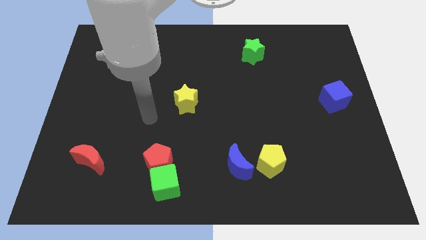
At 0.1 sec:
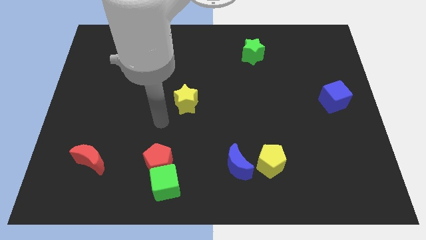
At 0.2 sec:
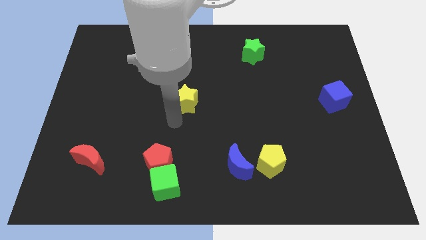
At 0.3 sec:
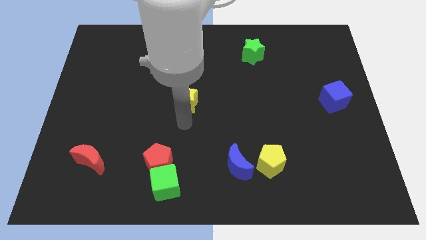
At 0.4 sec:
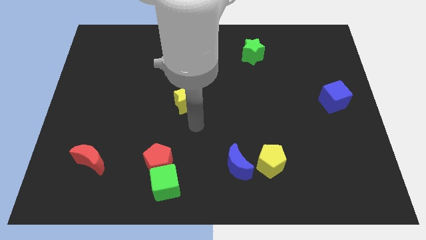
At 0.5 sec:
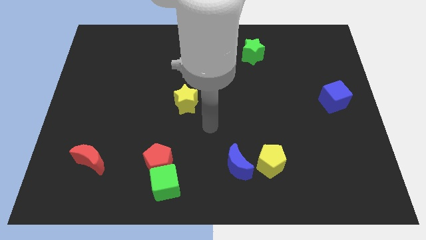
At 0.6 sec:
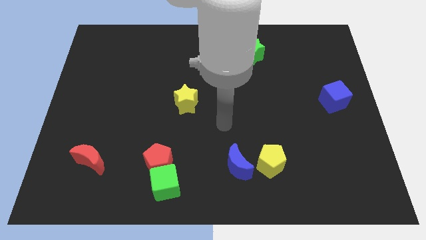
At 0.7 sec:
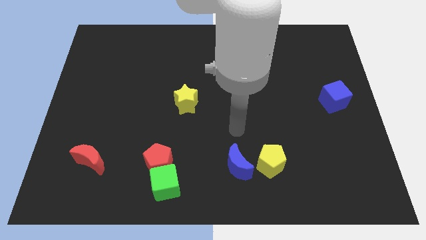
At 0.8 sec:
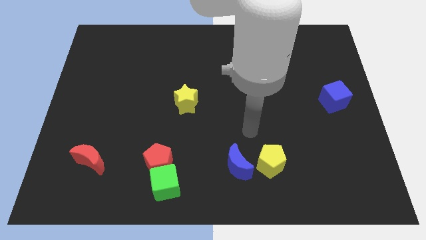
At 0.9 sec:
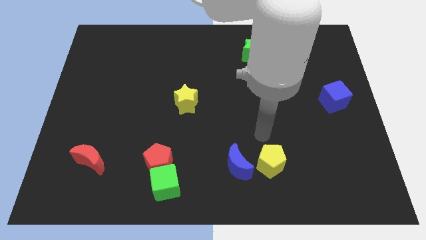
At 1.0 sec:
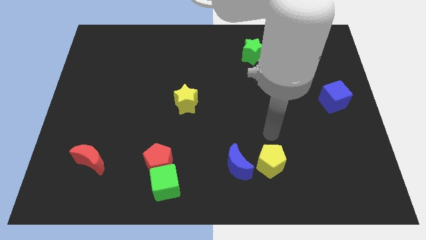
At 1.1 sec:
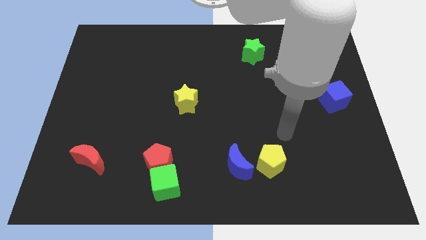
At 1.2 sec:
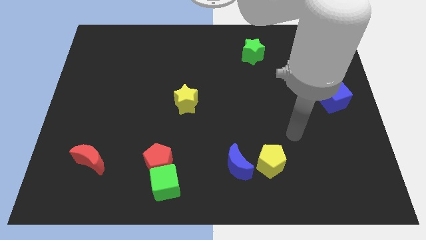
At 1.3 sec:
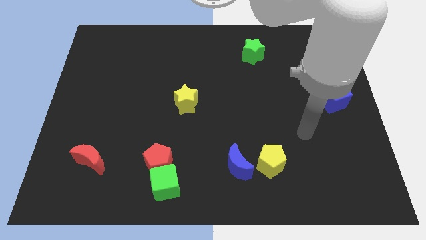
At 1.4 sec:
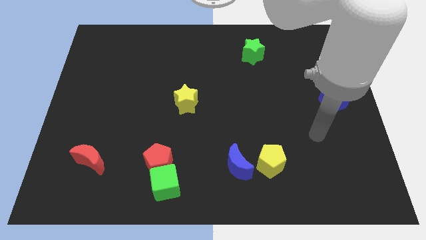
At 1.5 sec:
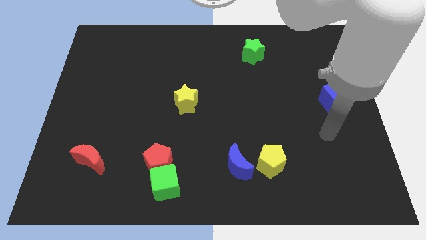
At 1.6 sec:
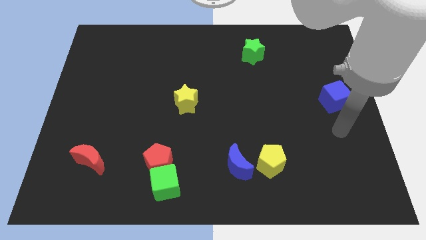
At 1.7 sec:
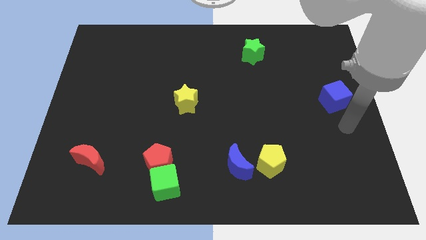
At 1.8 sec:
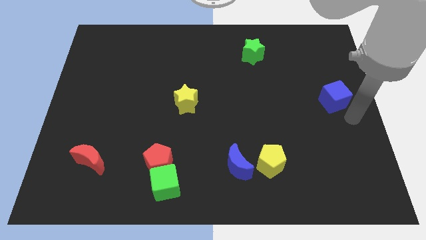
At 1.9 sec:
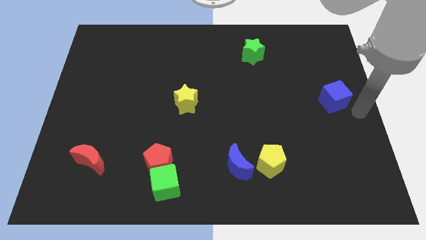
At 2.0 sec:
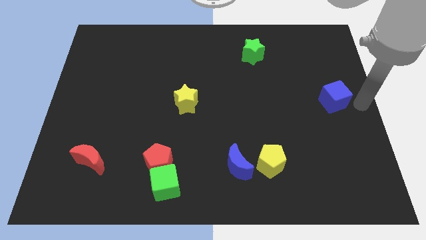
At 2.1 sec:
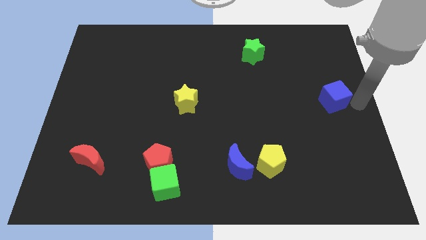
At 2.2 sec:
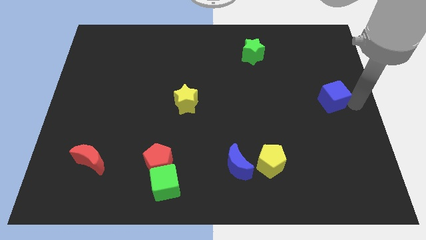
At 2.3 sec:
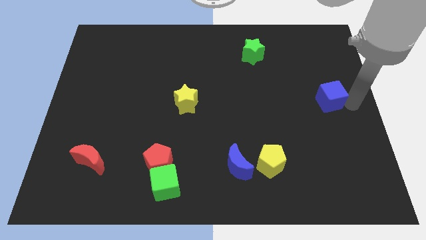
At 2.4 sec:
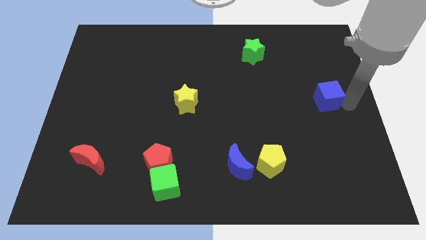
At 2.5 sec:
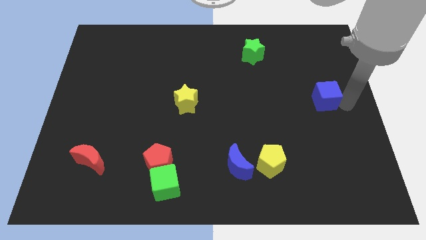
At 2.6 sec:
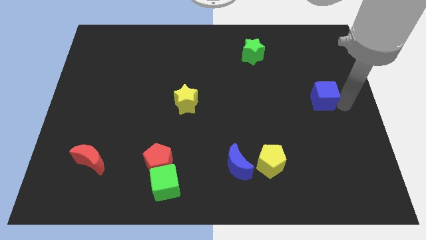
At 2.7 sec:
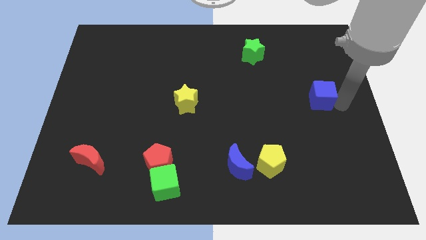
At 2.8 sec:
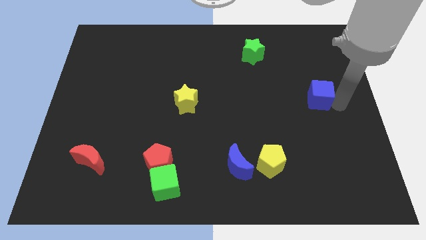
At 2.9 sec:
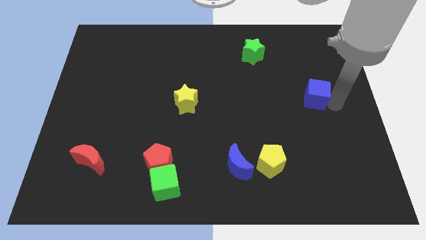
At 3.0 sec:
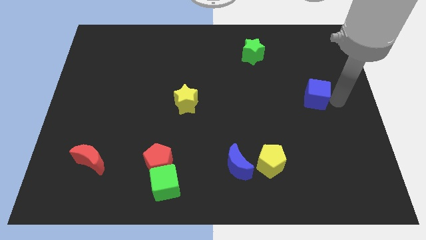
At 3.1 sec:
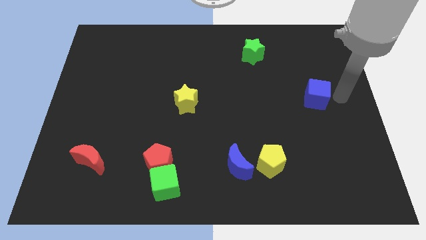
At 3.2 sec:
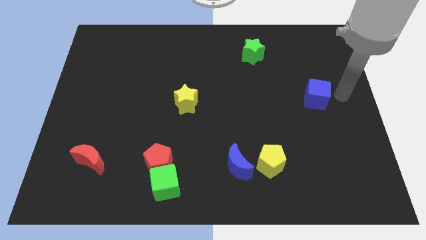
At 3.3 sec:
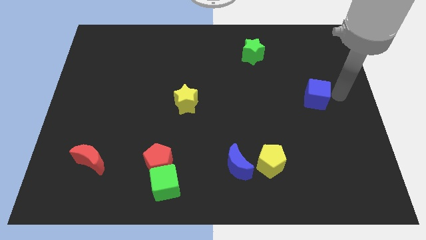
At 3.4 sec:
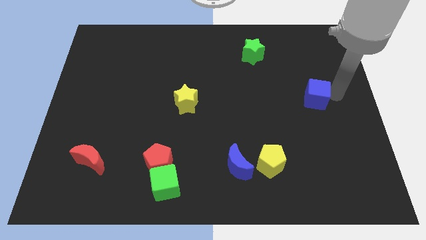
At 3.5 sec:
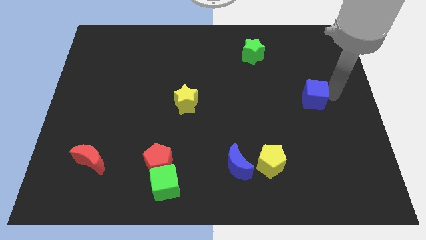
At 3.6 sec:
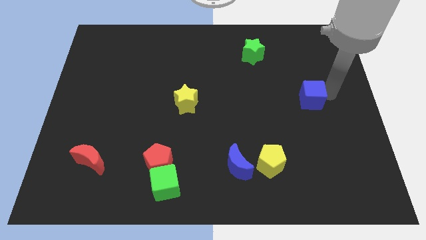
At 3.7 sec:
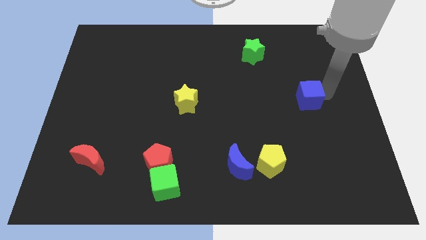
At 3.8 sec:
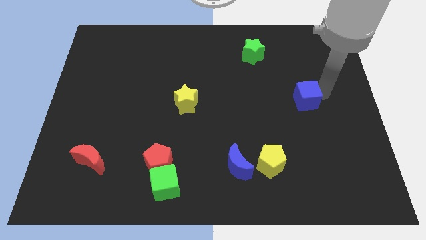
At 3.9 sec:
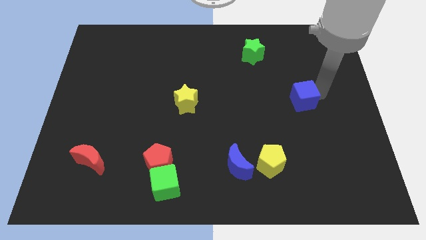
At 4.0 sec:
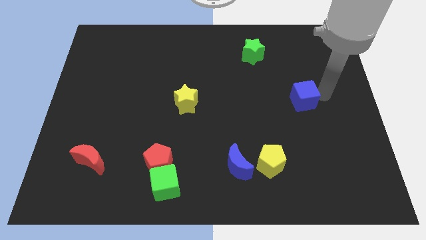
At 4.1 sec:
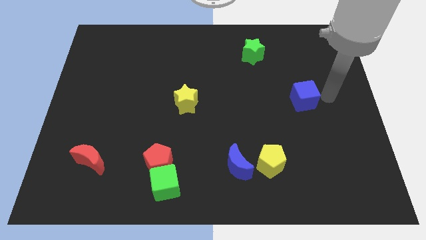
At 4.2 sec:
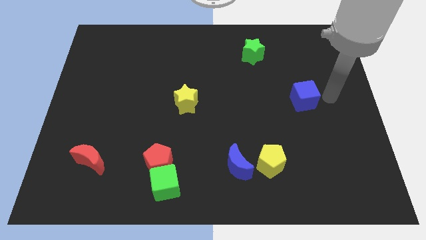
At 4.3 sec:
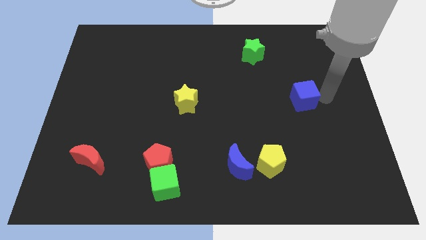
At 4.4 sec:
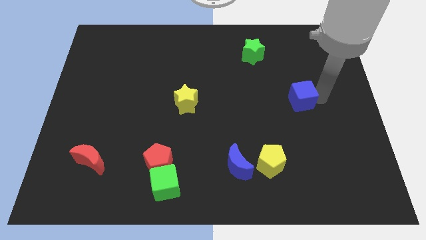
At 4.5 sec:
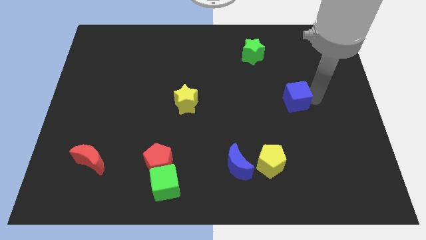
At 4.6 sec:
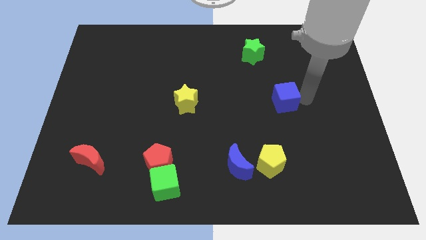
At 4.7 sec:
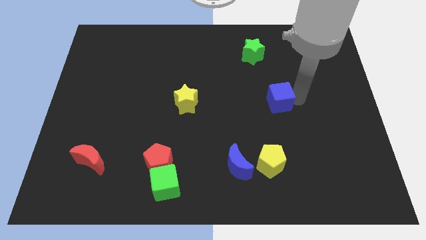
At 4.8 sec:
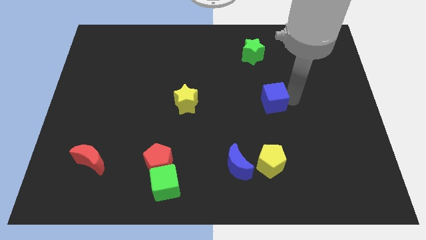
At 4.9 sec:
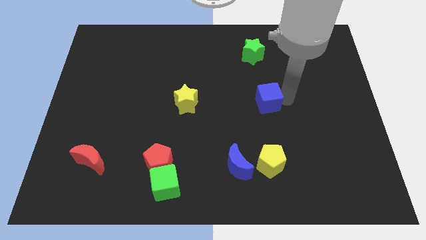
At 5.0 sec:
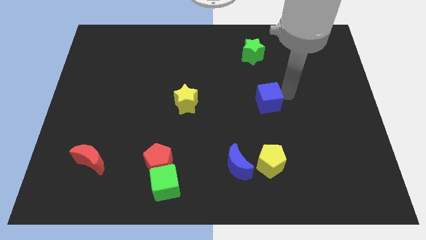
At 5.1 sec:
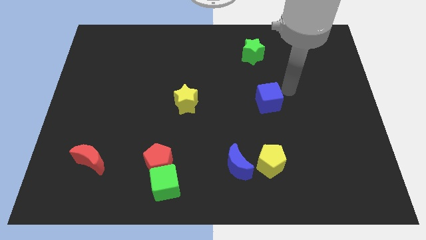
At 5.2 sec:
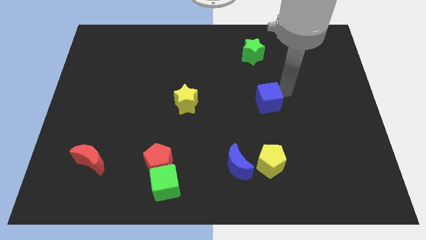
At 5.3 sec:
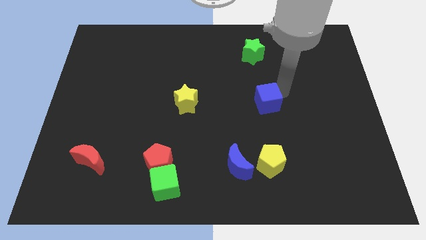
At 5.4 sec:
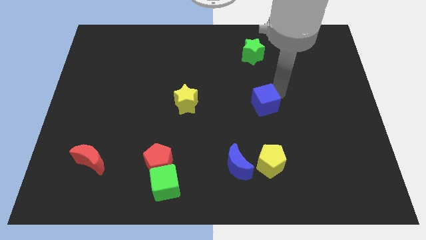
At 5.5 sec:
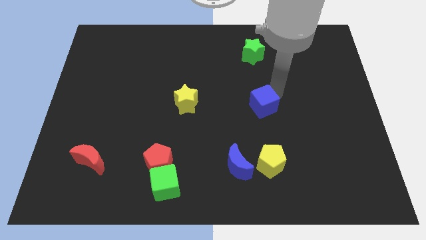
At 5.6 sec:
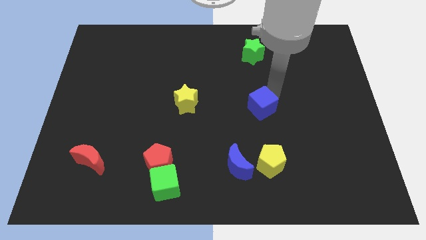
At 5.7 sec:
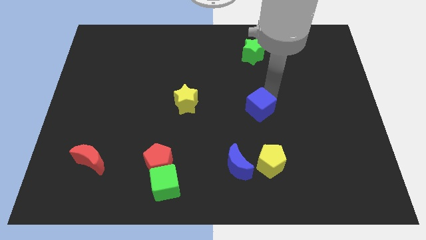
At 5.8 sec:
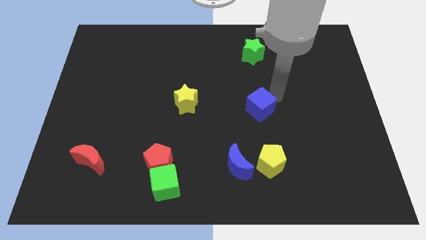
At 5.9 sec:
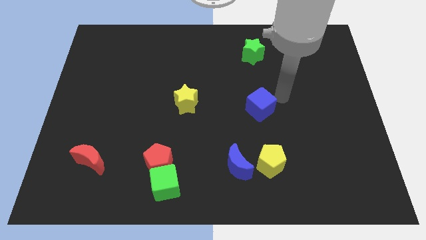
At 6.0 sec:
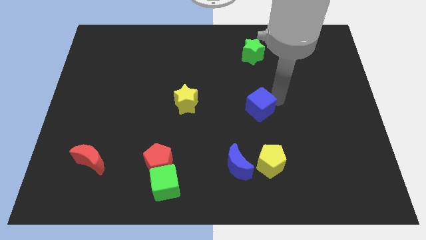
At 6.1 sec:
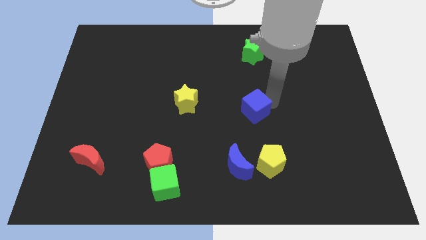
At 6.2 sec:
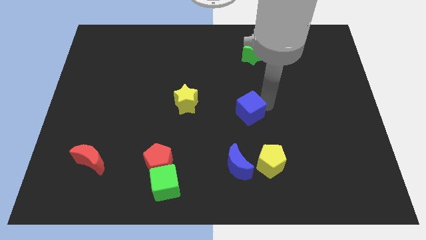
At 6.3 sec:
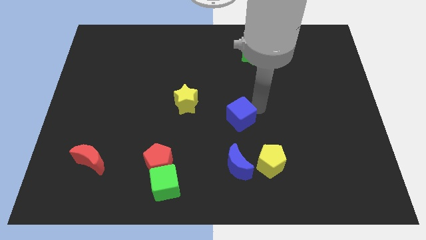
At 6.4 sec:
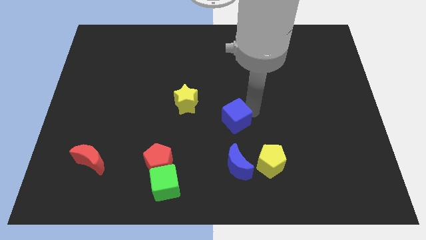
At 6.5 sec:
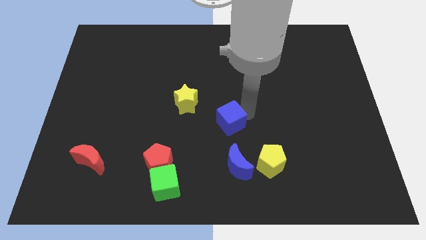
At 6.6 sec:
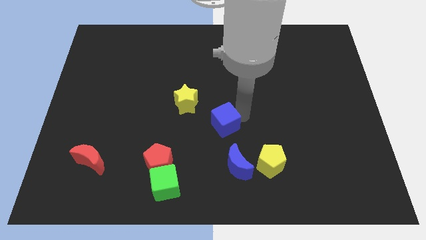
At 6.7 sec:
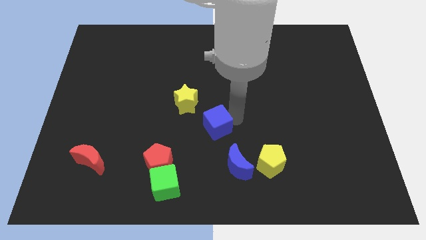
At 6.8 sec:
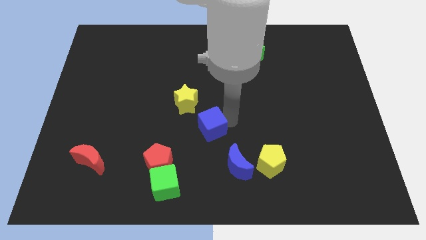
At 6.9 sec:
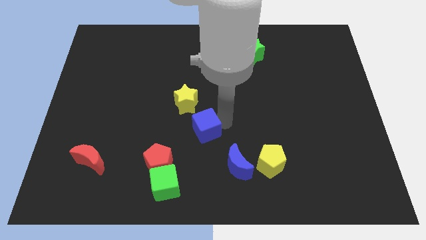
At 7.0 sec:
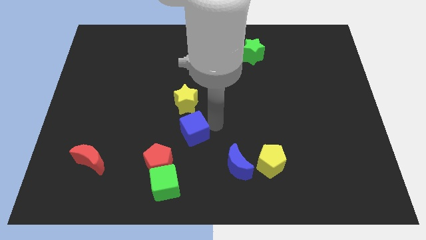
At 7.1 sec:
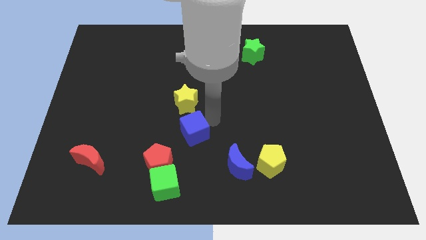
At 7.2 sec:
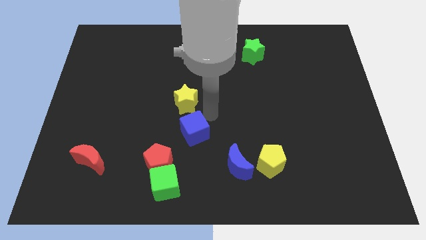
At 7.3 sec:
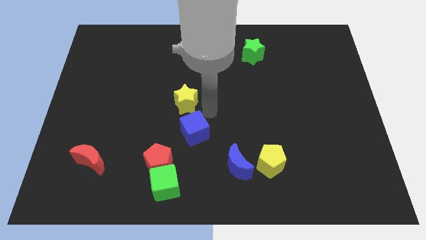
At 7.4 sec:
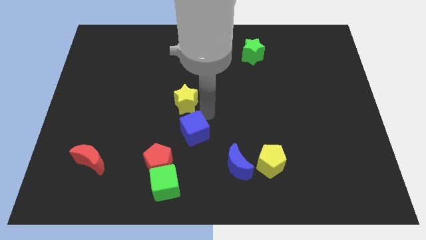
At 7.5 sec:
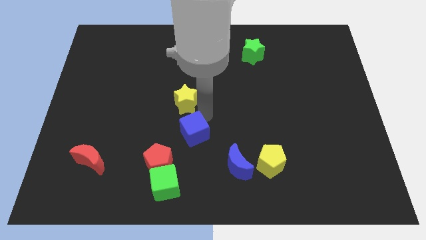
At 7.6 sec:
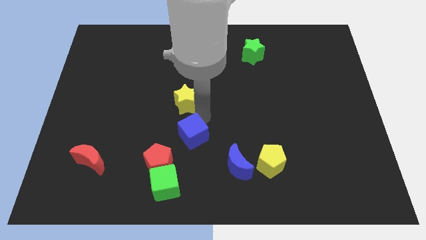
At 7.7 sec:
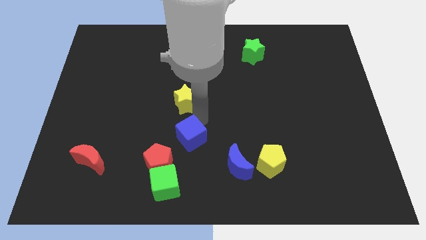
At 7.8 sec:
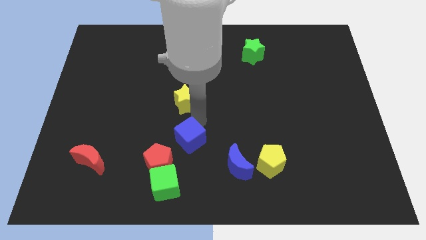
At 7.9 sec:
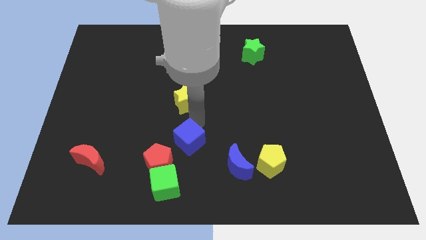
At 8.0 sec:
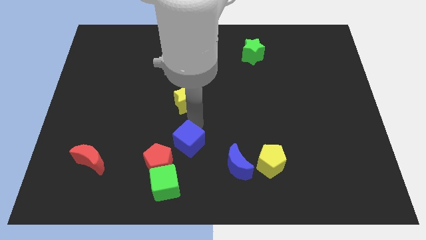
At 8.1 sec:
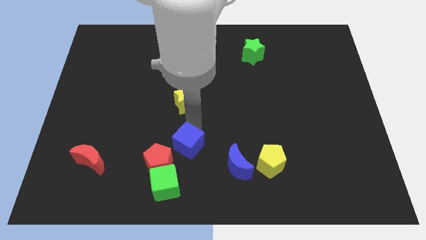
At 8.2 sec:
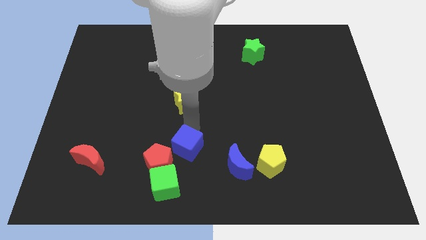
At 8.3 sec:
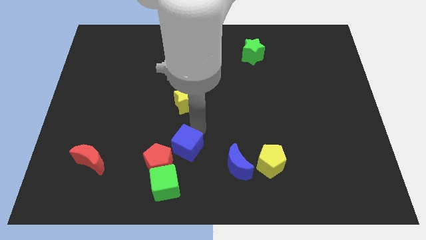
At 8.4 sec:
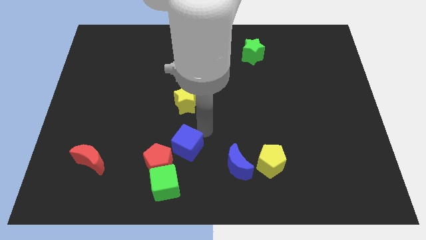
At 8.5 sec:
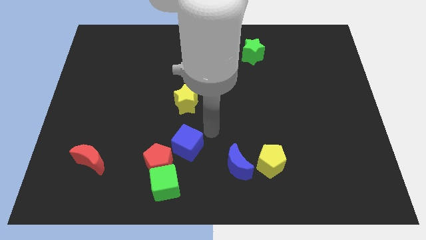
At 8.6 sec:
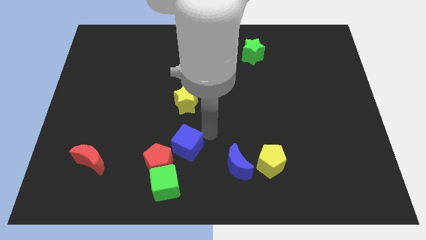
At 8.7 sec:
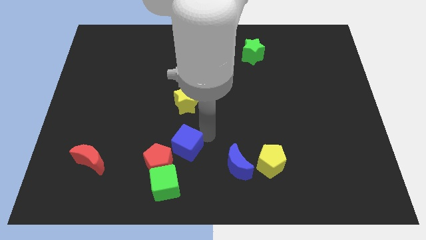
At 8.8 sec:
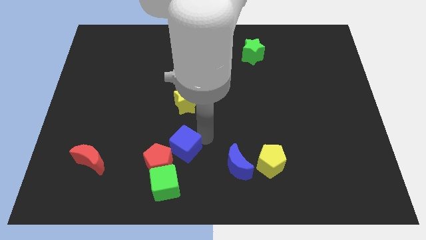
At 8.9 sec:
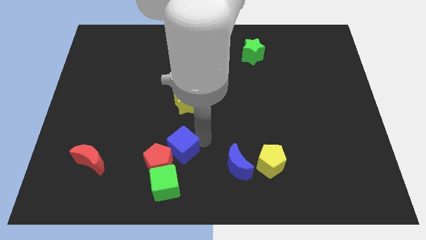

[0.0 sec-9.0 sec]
put the blue cube next to the red pentagon
